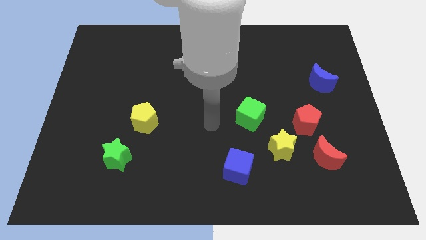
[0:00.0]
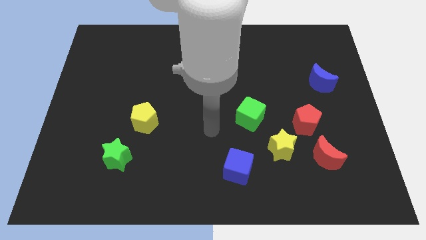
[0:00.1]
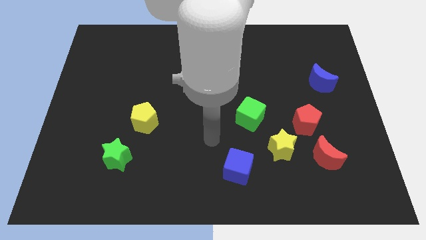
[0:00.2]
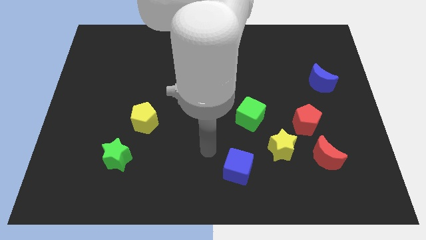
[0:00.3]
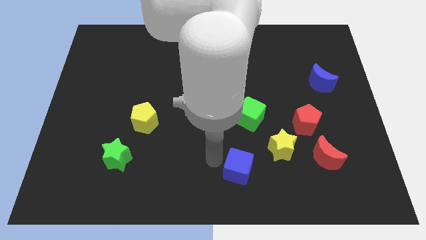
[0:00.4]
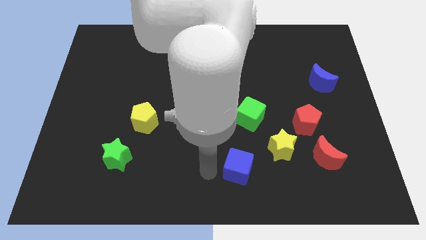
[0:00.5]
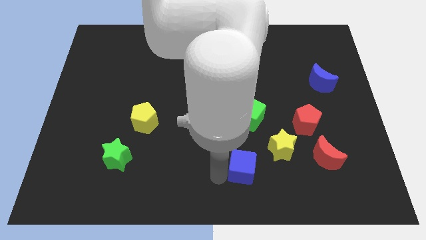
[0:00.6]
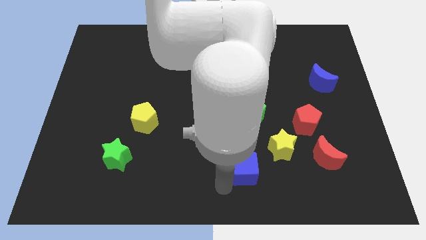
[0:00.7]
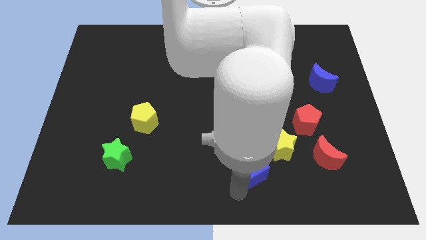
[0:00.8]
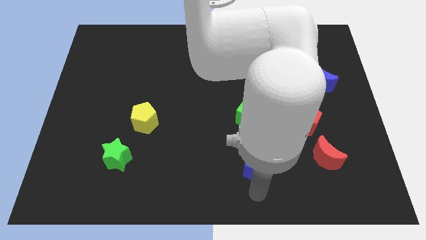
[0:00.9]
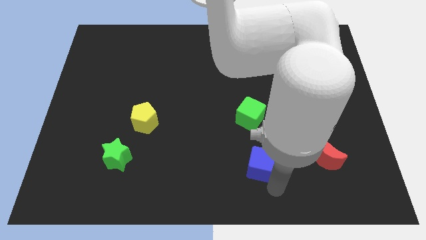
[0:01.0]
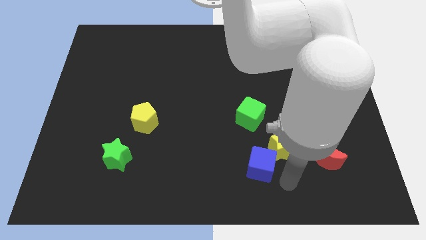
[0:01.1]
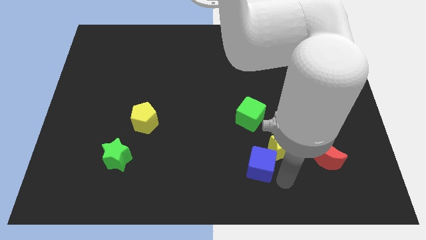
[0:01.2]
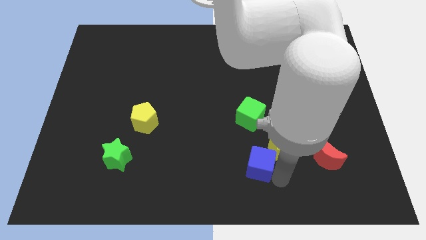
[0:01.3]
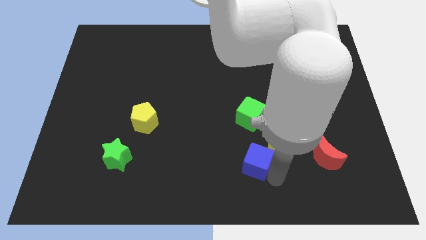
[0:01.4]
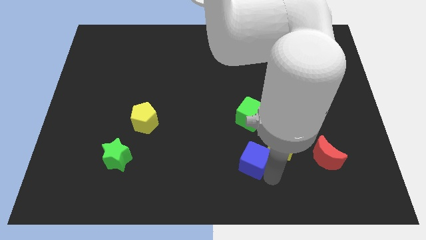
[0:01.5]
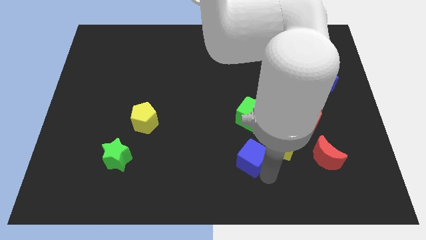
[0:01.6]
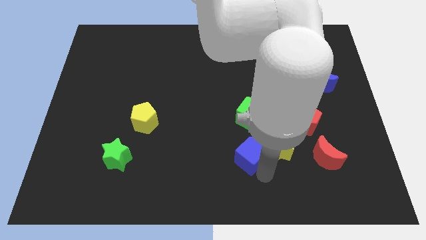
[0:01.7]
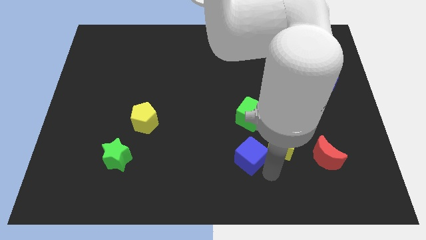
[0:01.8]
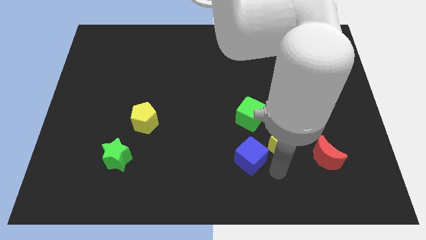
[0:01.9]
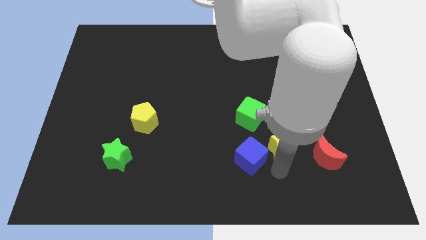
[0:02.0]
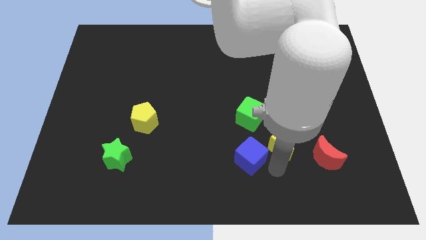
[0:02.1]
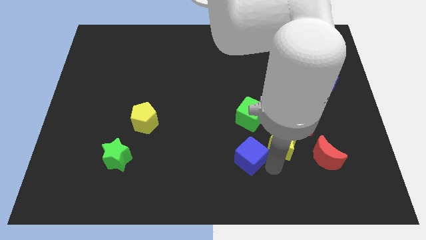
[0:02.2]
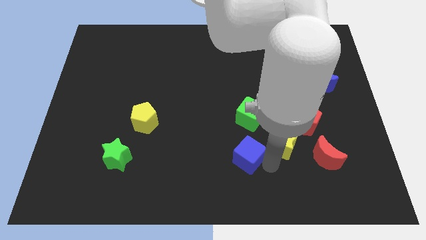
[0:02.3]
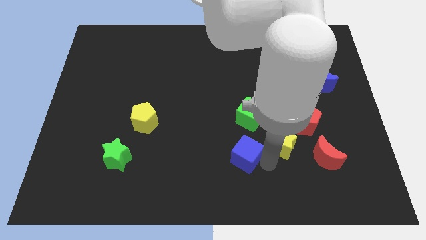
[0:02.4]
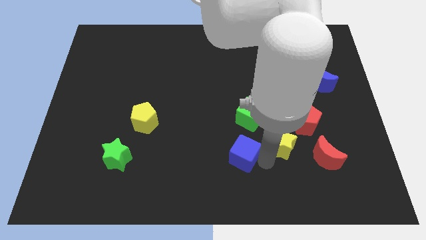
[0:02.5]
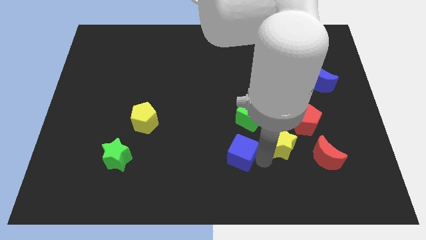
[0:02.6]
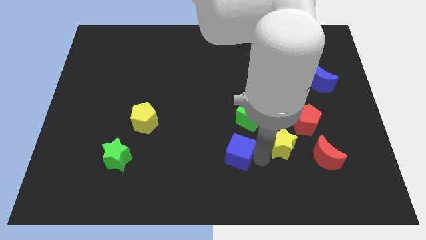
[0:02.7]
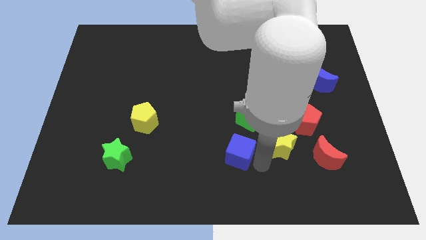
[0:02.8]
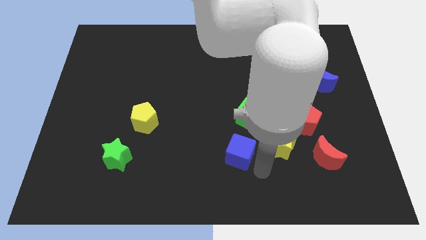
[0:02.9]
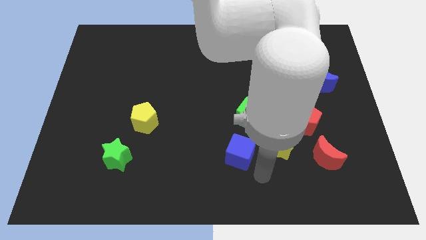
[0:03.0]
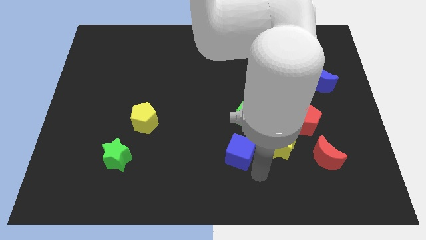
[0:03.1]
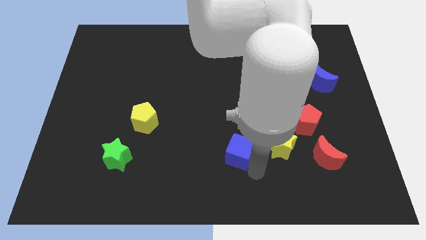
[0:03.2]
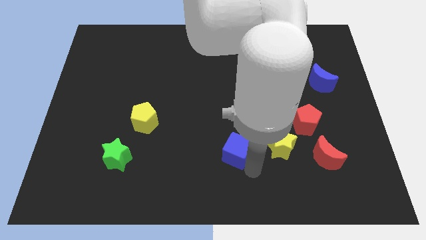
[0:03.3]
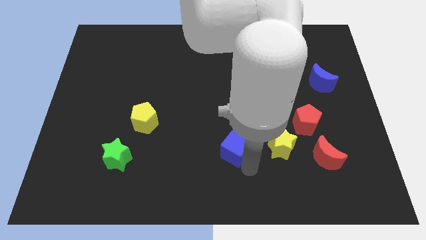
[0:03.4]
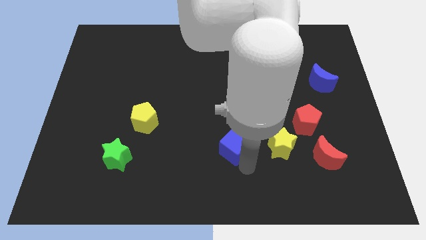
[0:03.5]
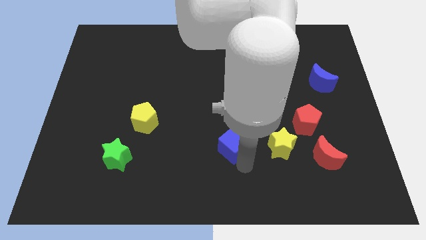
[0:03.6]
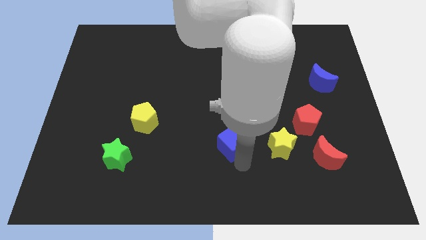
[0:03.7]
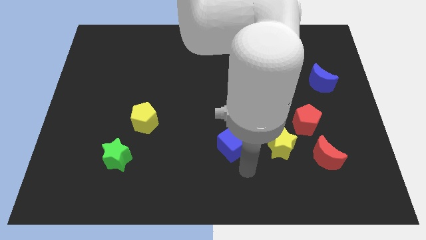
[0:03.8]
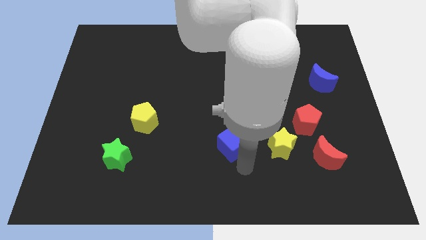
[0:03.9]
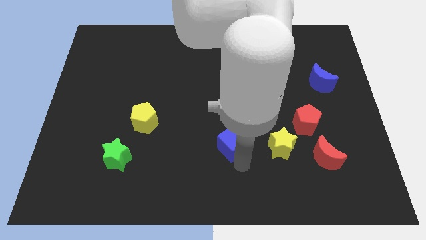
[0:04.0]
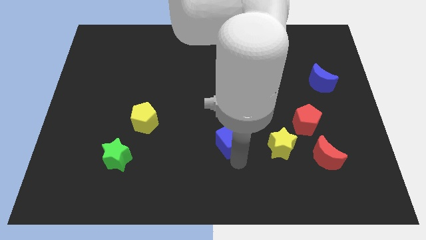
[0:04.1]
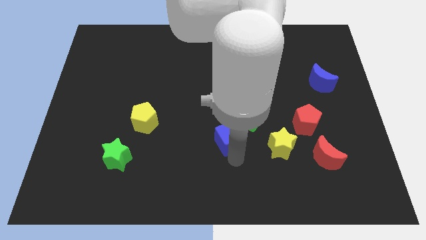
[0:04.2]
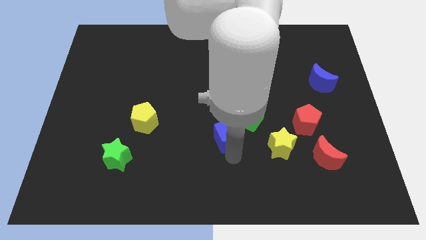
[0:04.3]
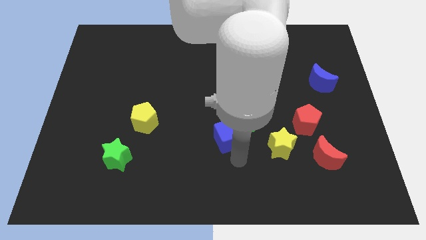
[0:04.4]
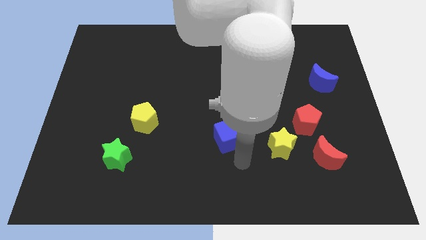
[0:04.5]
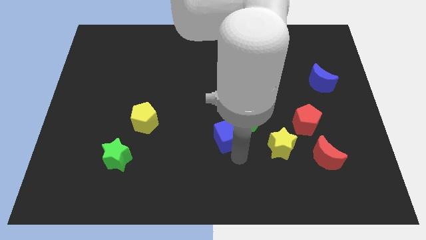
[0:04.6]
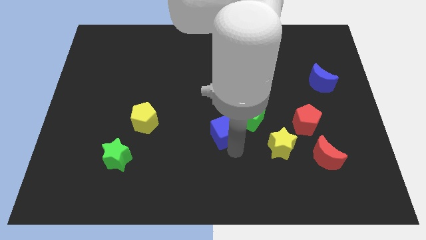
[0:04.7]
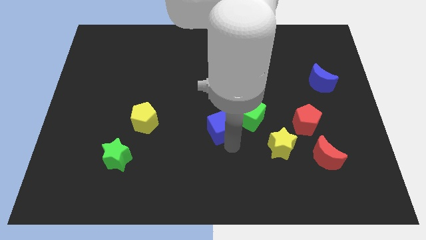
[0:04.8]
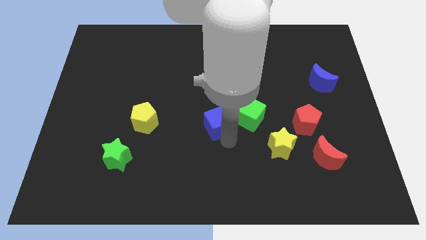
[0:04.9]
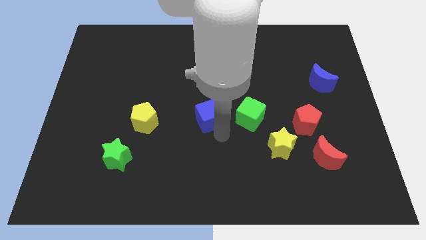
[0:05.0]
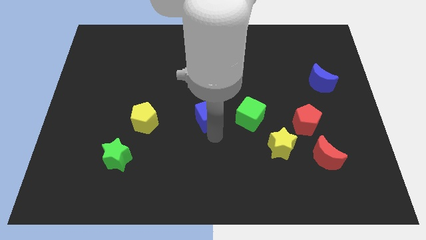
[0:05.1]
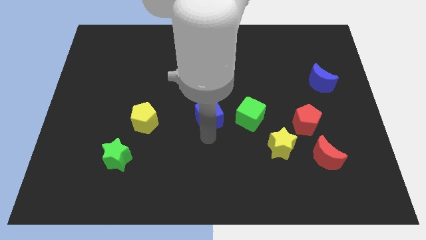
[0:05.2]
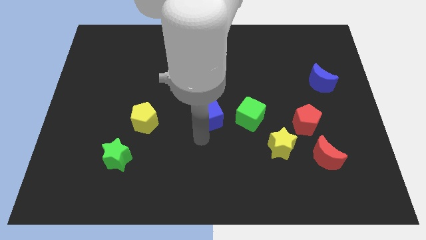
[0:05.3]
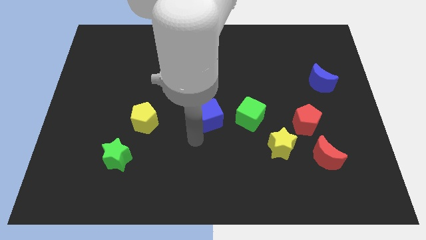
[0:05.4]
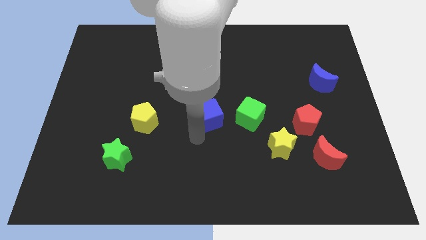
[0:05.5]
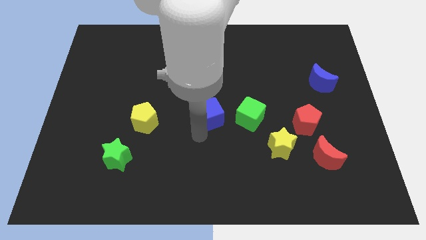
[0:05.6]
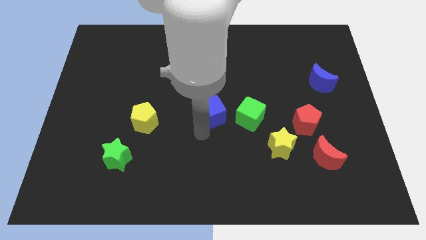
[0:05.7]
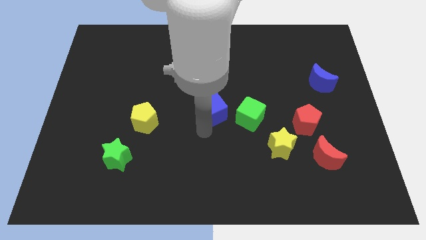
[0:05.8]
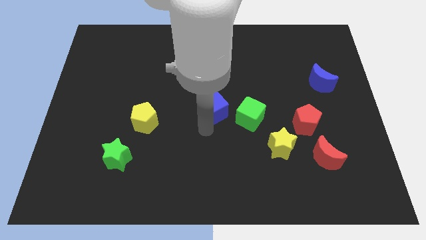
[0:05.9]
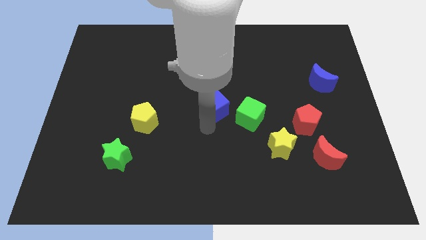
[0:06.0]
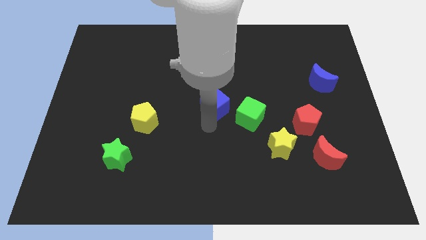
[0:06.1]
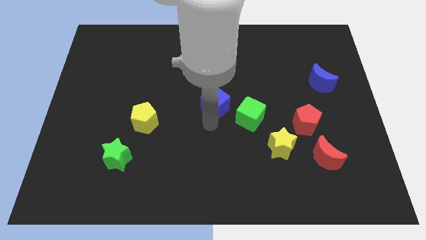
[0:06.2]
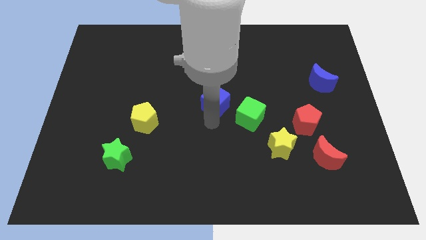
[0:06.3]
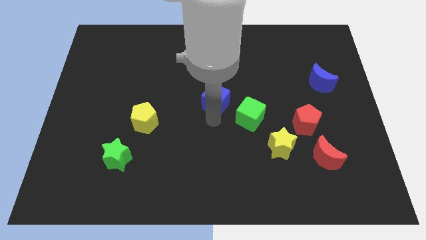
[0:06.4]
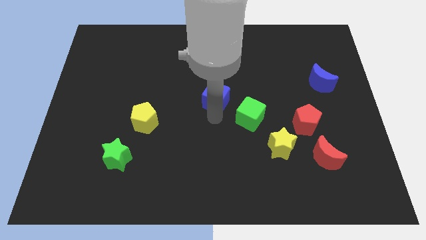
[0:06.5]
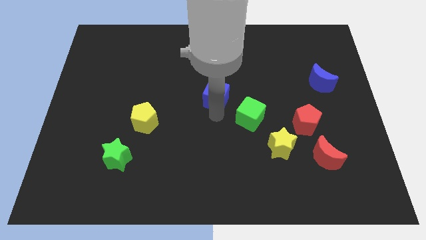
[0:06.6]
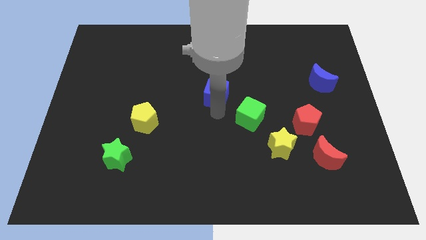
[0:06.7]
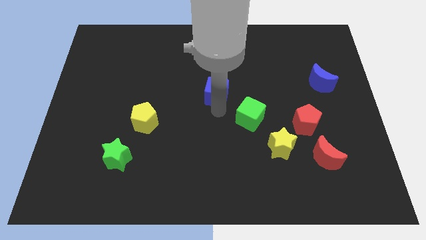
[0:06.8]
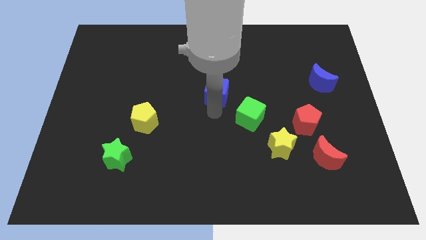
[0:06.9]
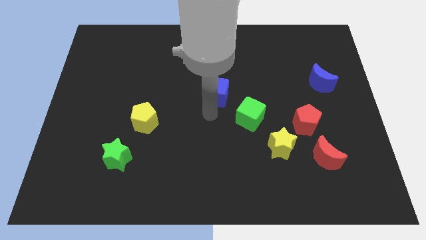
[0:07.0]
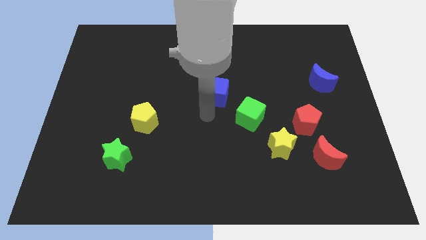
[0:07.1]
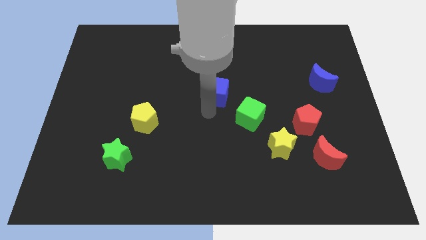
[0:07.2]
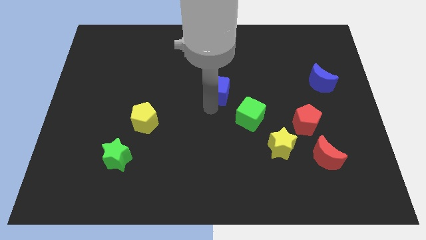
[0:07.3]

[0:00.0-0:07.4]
move the blue cube upwards

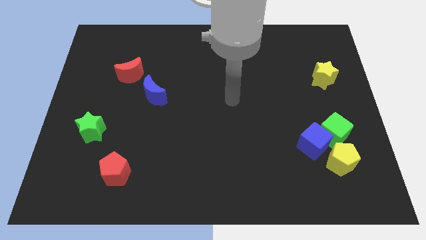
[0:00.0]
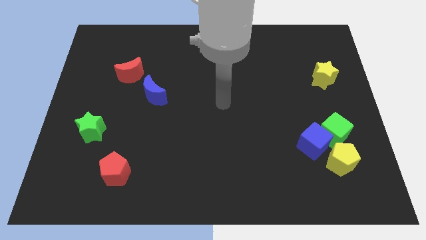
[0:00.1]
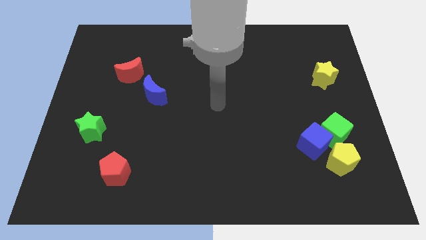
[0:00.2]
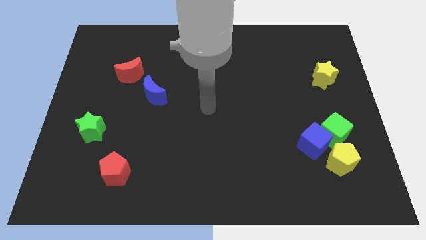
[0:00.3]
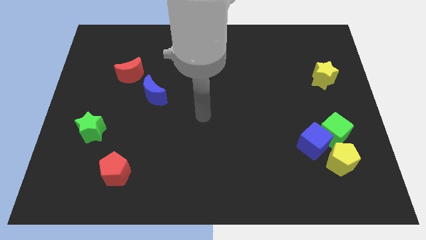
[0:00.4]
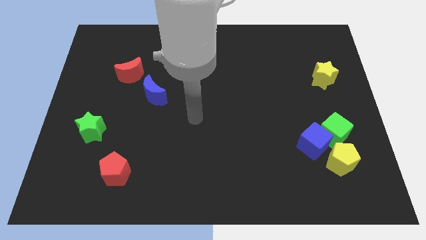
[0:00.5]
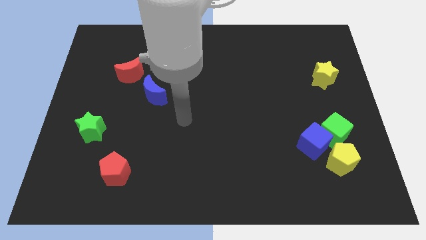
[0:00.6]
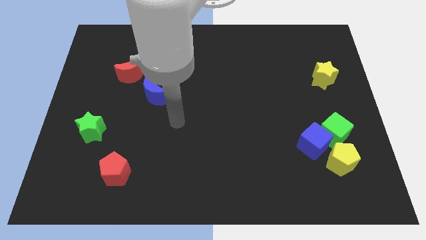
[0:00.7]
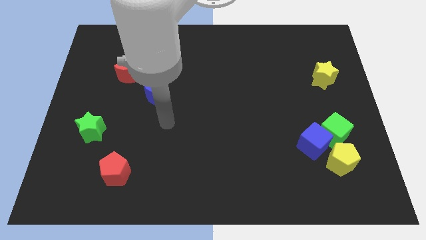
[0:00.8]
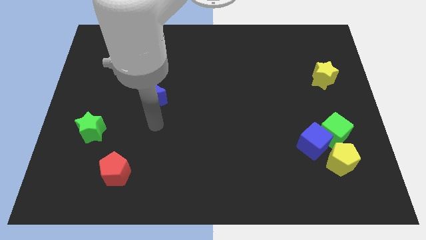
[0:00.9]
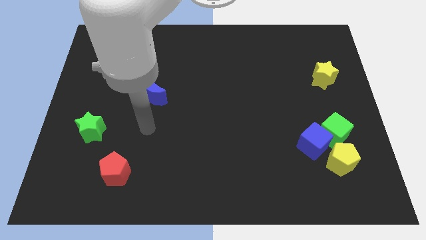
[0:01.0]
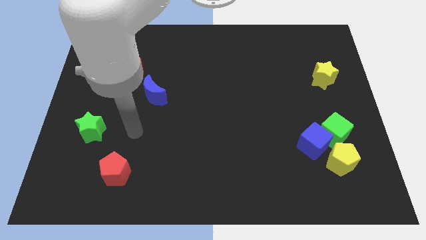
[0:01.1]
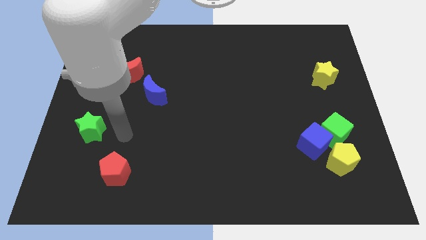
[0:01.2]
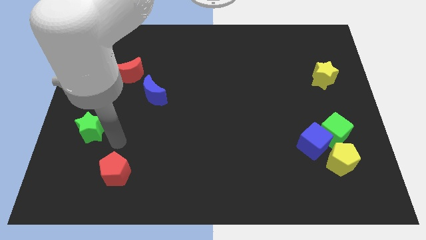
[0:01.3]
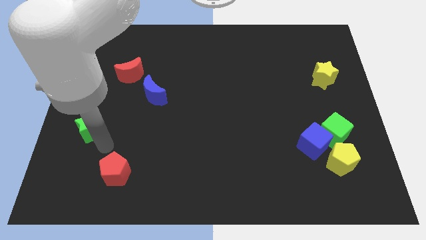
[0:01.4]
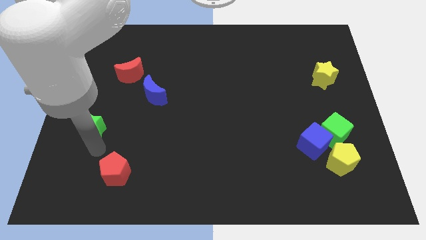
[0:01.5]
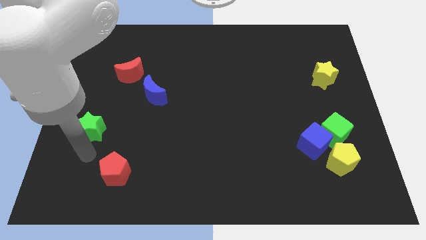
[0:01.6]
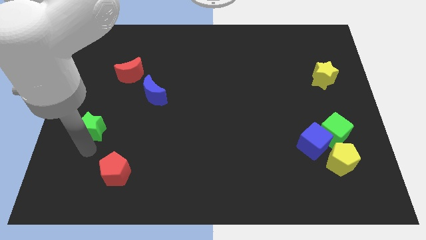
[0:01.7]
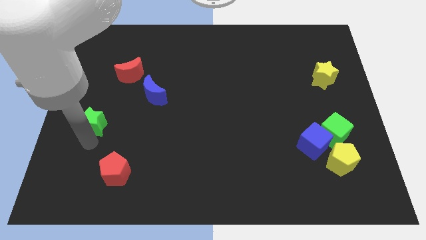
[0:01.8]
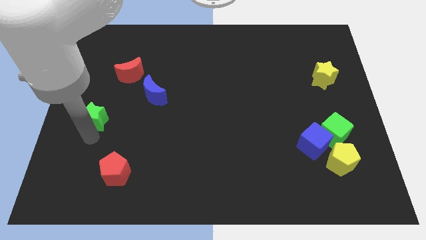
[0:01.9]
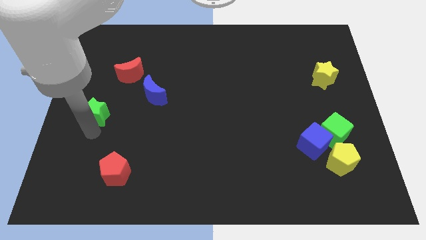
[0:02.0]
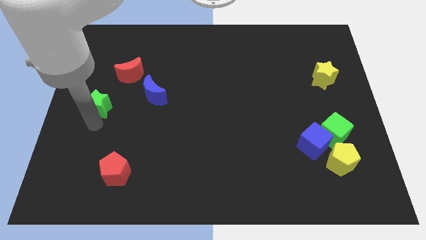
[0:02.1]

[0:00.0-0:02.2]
push the green star upwards somewhat
